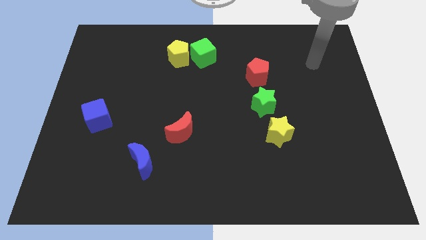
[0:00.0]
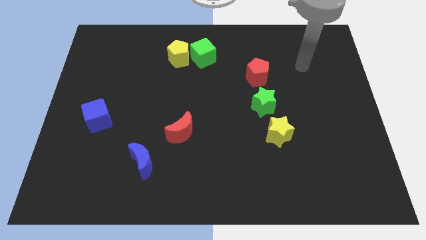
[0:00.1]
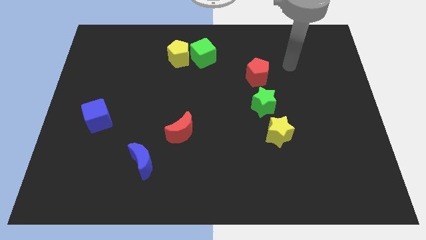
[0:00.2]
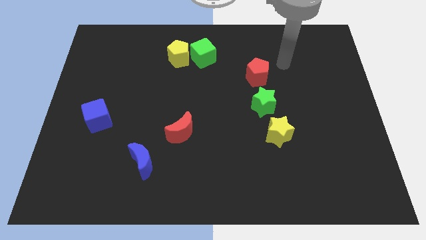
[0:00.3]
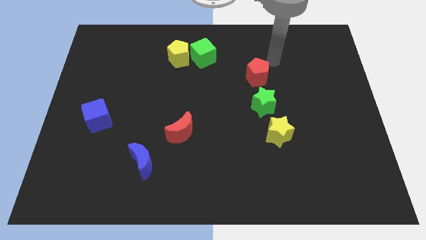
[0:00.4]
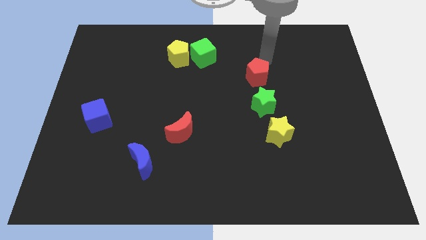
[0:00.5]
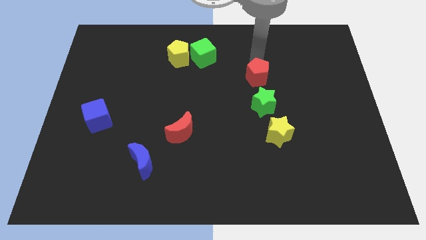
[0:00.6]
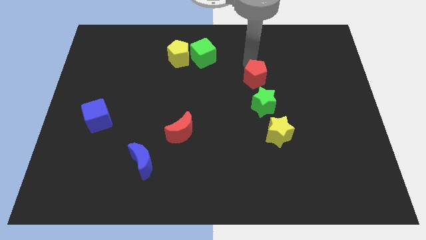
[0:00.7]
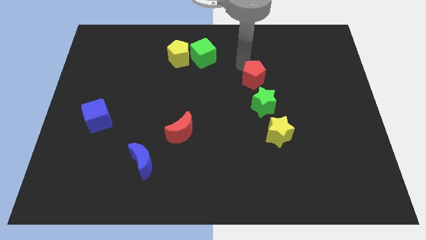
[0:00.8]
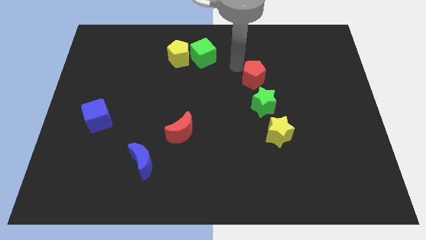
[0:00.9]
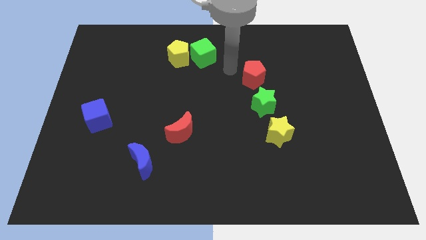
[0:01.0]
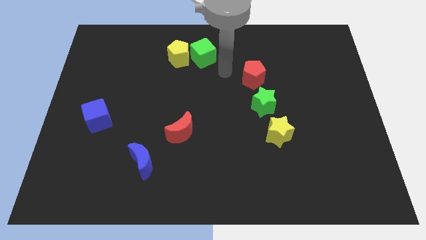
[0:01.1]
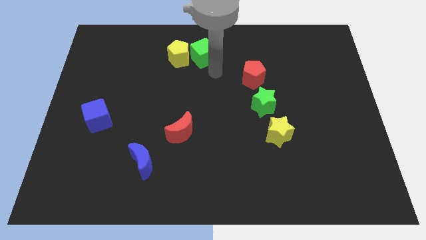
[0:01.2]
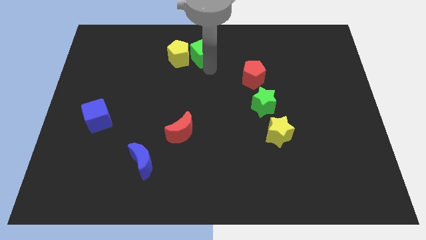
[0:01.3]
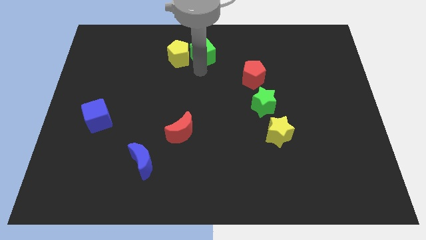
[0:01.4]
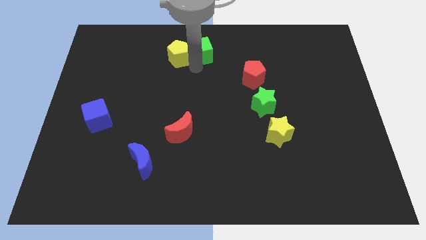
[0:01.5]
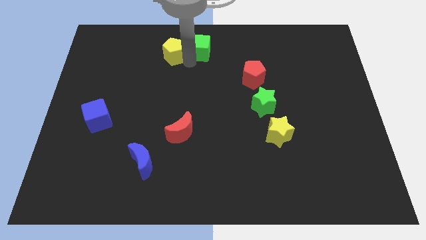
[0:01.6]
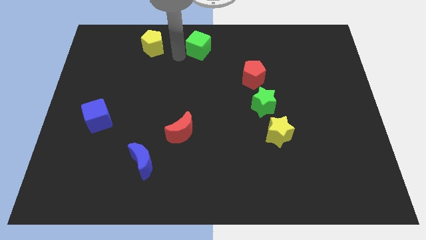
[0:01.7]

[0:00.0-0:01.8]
pull the green cube apart from the yellow pentagon

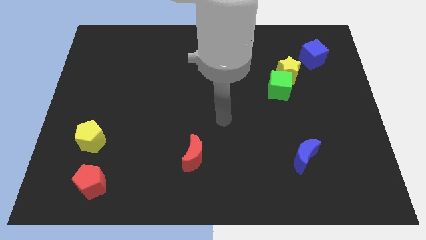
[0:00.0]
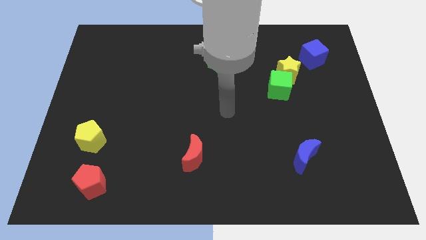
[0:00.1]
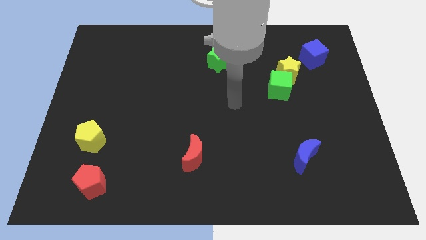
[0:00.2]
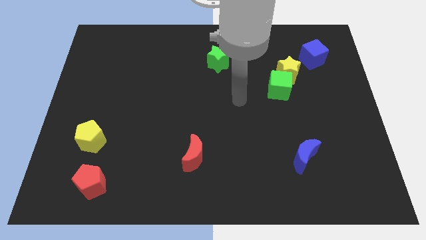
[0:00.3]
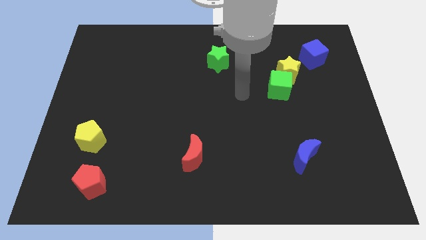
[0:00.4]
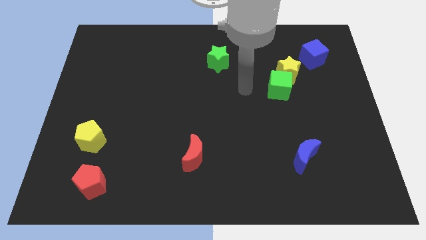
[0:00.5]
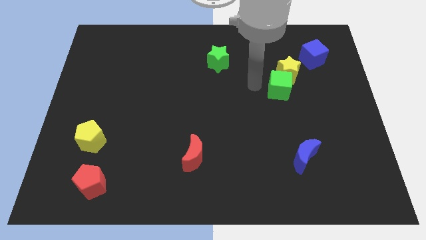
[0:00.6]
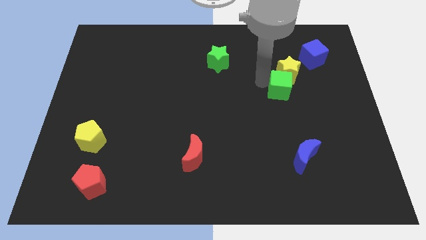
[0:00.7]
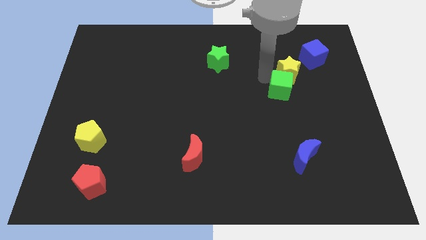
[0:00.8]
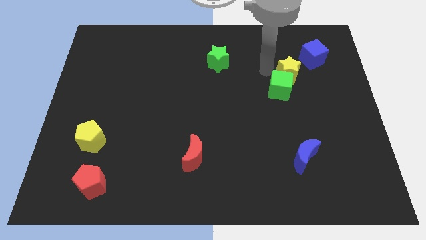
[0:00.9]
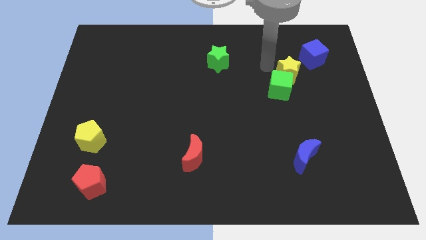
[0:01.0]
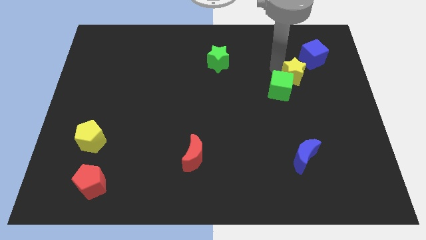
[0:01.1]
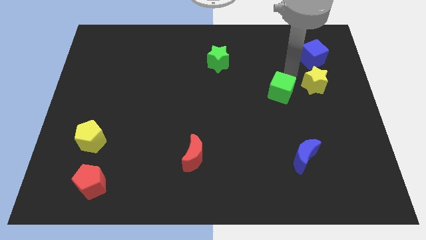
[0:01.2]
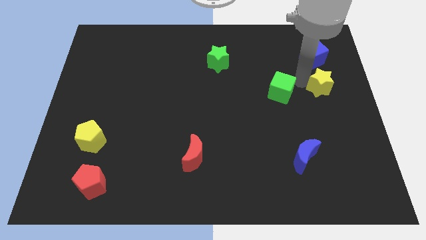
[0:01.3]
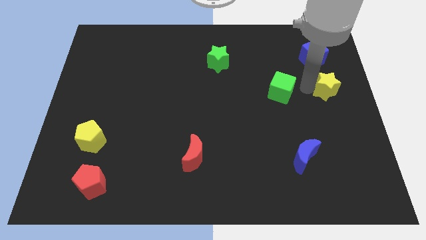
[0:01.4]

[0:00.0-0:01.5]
separate the green cube from the yellow star

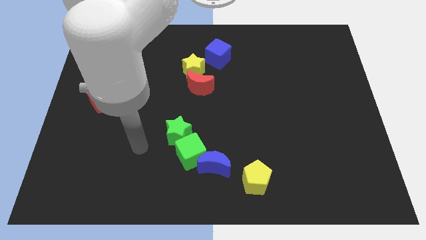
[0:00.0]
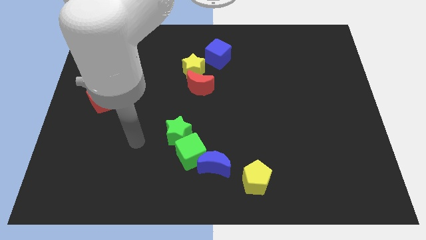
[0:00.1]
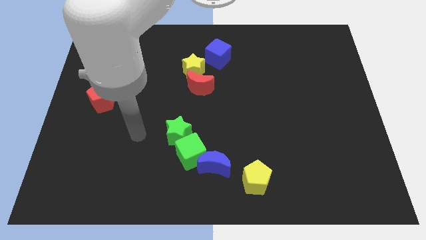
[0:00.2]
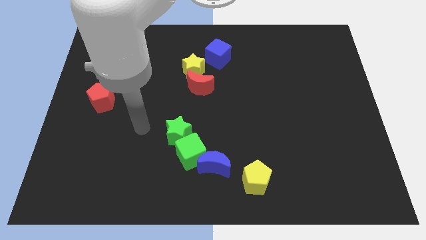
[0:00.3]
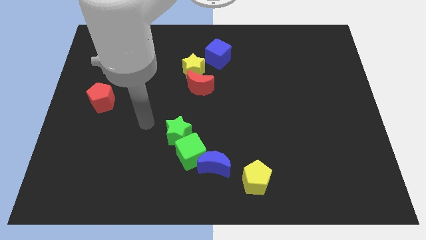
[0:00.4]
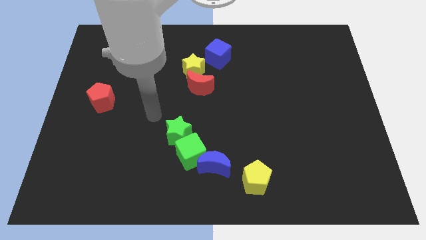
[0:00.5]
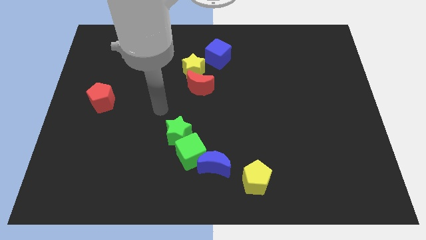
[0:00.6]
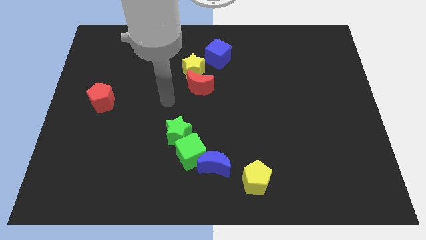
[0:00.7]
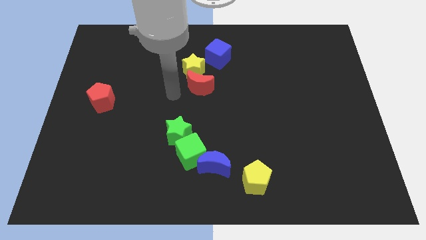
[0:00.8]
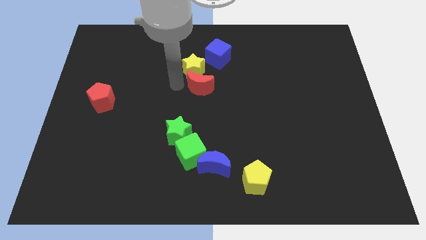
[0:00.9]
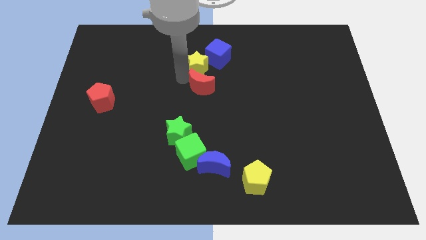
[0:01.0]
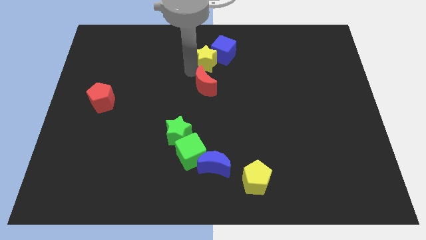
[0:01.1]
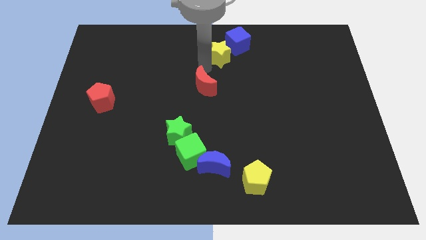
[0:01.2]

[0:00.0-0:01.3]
separate the red moon from the yellow star

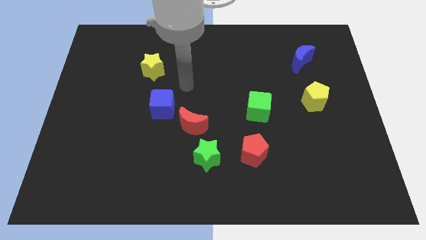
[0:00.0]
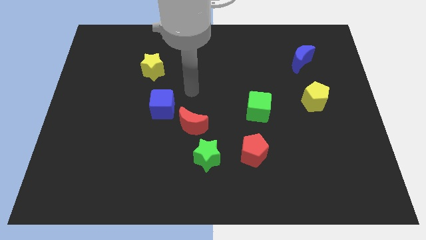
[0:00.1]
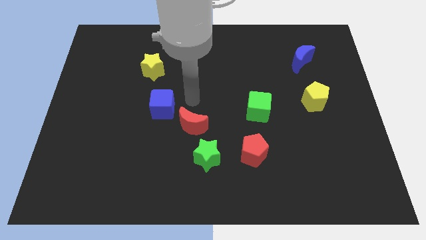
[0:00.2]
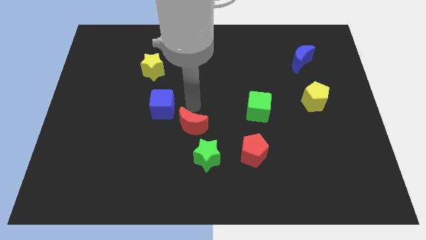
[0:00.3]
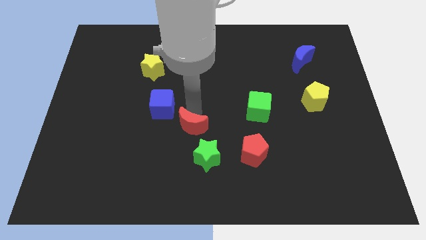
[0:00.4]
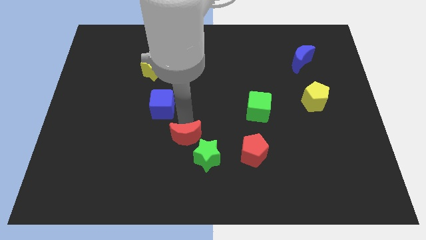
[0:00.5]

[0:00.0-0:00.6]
move the blue cube away from the red moon

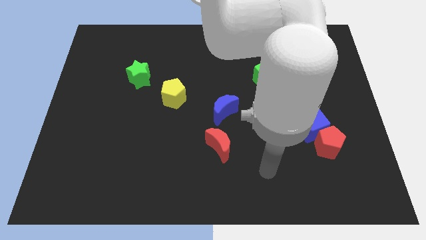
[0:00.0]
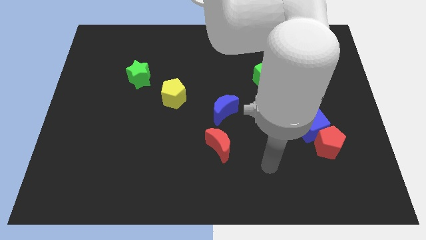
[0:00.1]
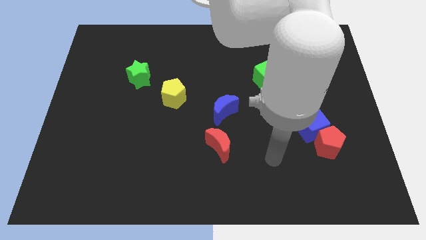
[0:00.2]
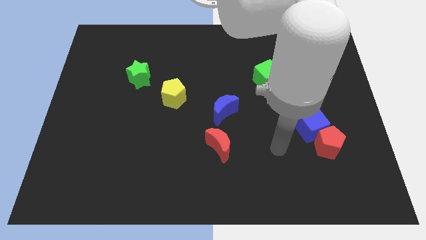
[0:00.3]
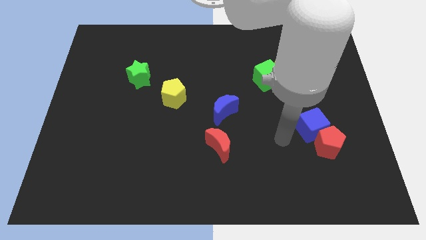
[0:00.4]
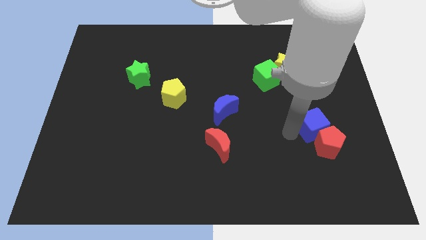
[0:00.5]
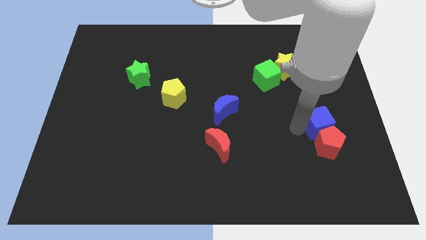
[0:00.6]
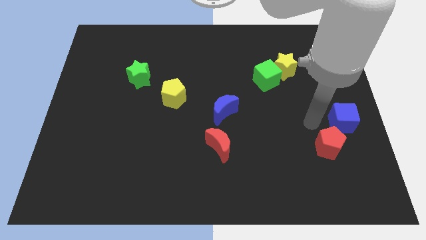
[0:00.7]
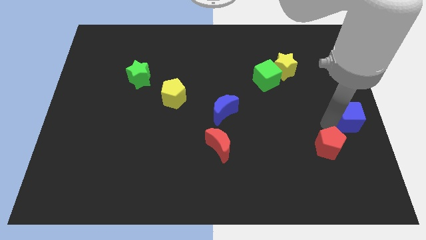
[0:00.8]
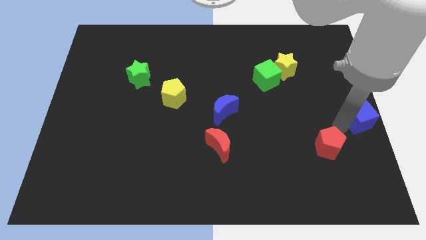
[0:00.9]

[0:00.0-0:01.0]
pull the red pentagon apart from the blue cube

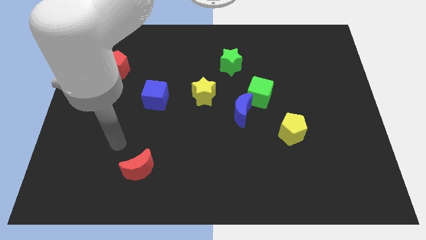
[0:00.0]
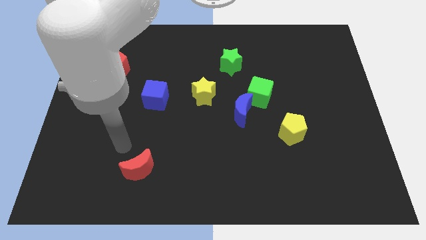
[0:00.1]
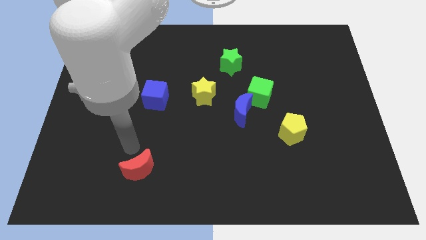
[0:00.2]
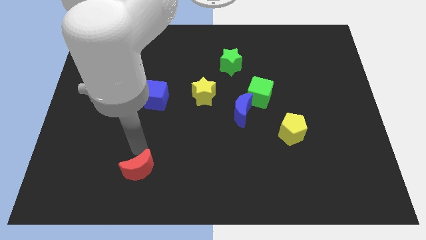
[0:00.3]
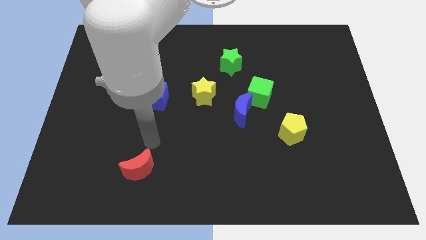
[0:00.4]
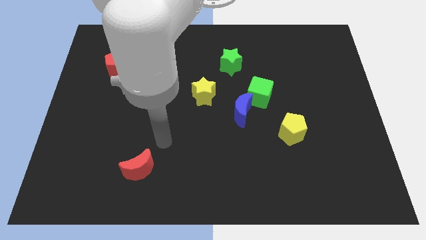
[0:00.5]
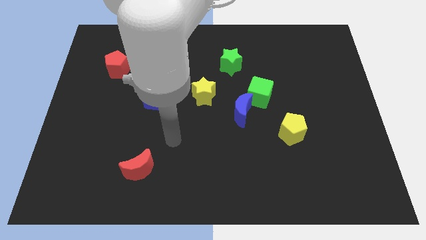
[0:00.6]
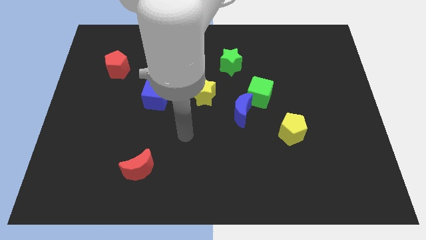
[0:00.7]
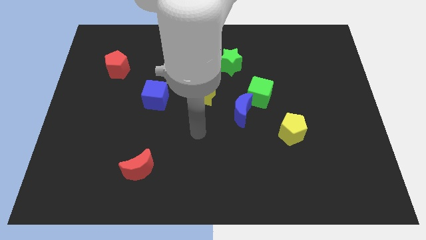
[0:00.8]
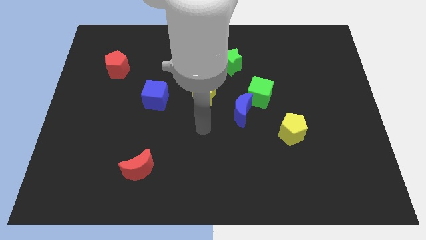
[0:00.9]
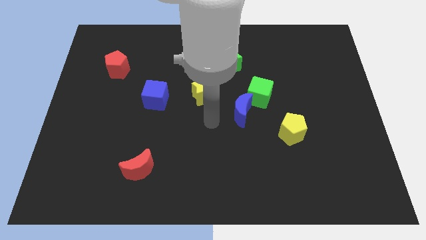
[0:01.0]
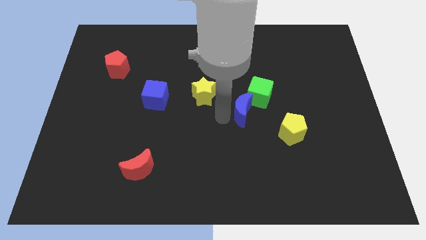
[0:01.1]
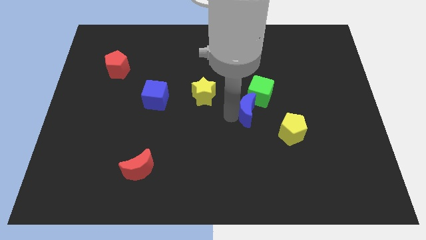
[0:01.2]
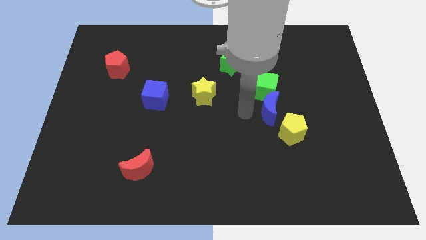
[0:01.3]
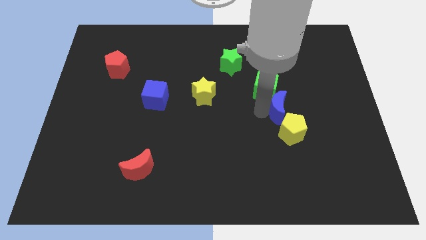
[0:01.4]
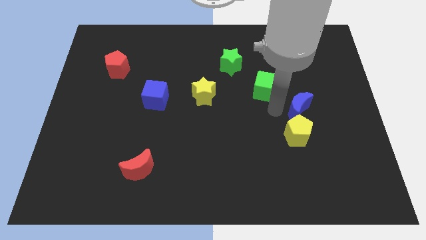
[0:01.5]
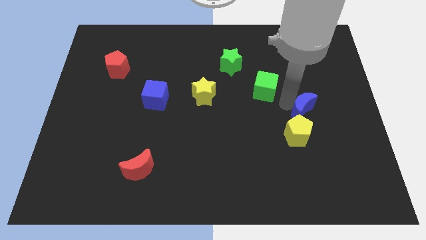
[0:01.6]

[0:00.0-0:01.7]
pull the green cube apart from the blue moon

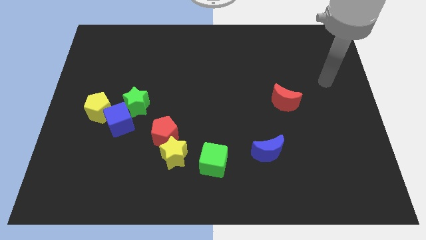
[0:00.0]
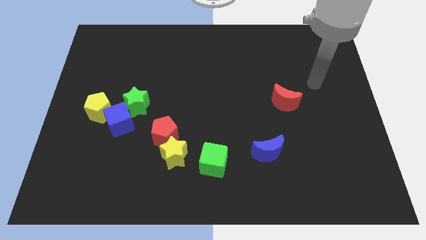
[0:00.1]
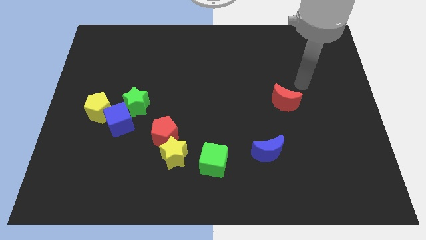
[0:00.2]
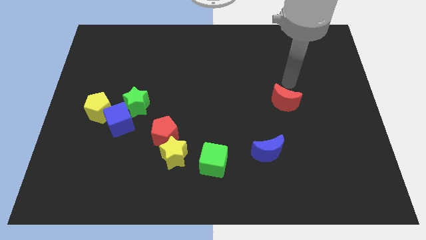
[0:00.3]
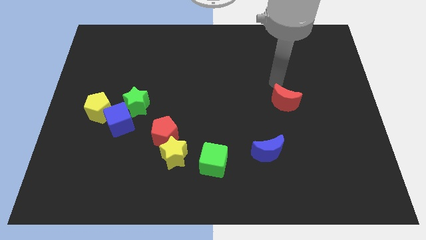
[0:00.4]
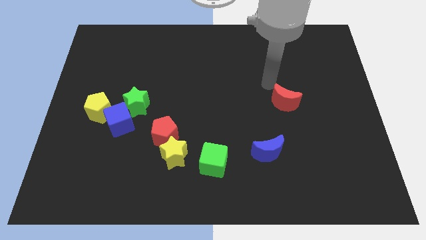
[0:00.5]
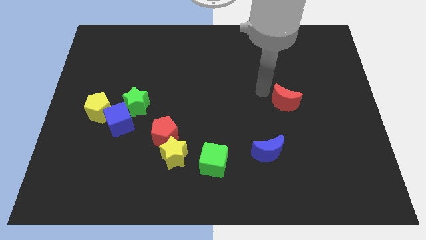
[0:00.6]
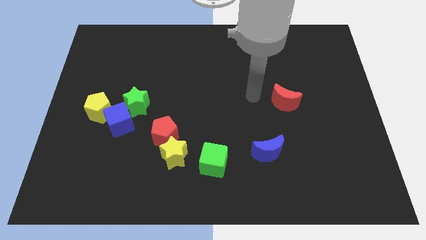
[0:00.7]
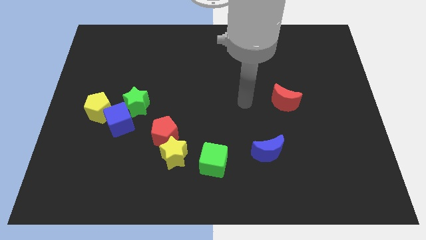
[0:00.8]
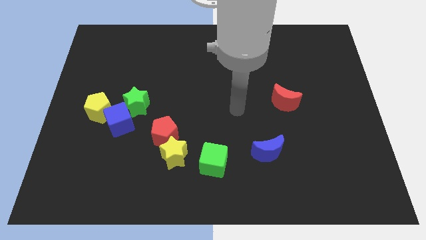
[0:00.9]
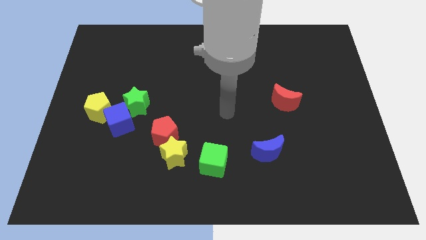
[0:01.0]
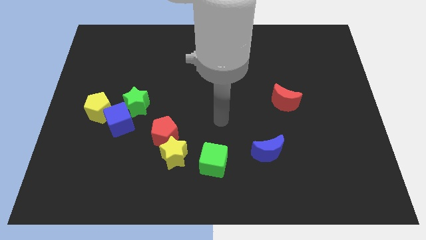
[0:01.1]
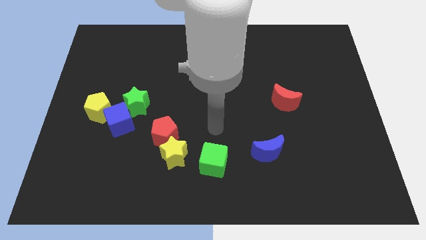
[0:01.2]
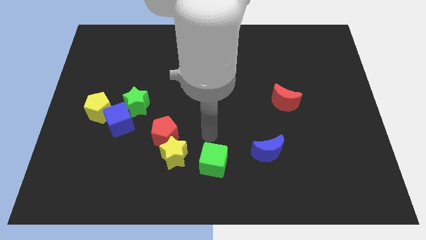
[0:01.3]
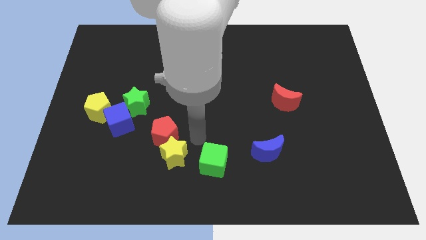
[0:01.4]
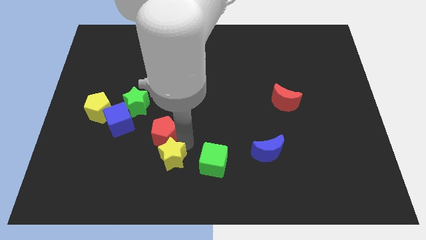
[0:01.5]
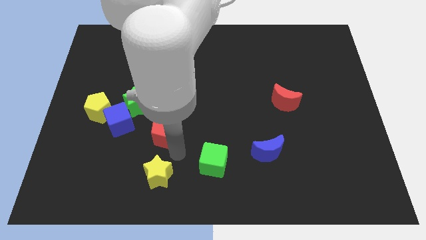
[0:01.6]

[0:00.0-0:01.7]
separate the red pentagon from the yellow star
